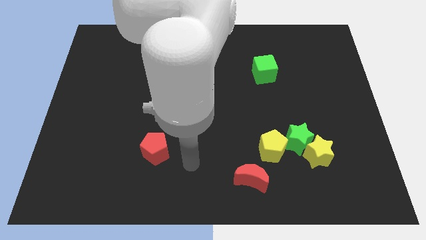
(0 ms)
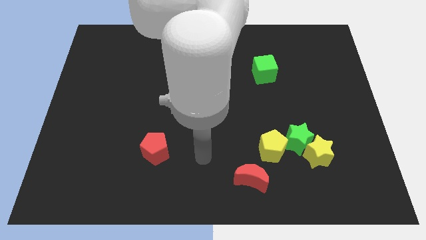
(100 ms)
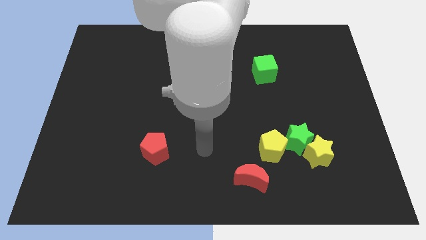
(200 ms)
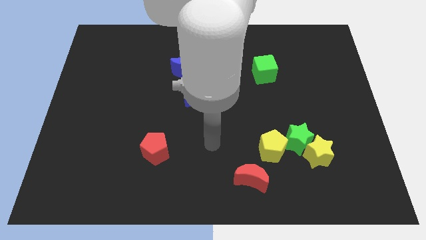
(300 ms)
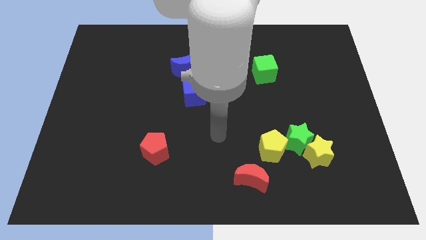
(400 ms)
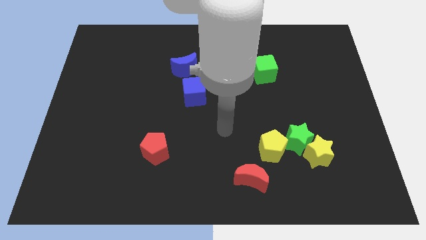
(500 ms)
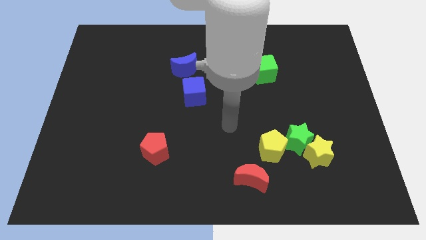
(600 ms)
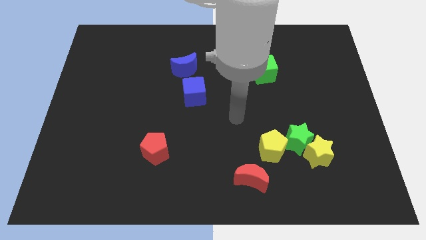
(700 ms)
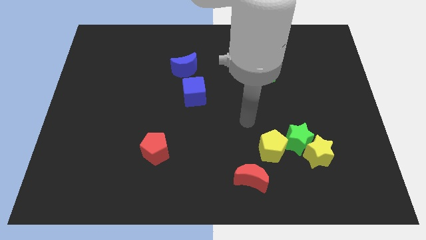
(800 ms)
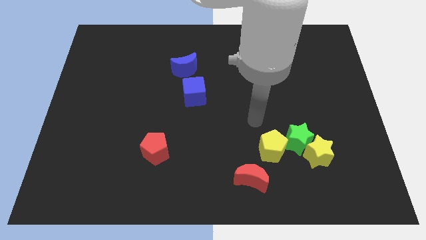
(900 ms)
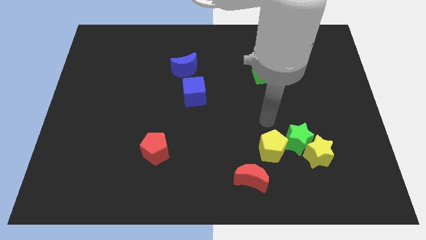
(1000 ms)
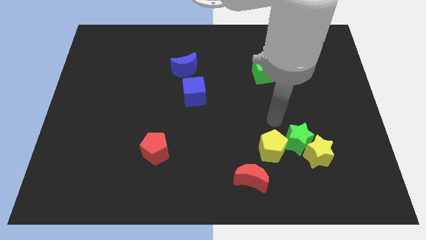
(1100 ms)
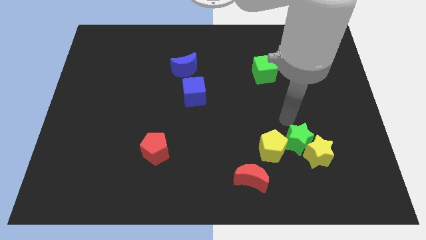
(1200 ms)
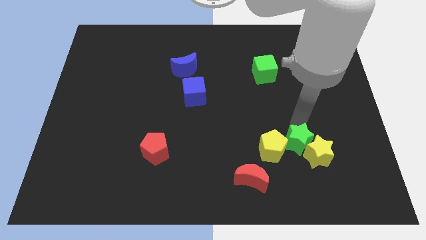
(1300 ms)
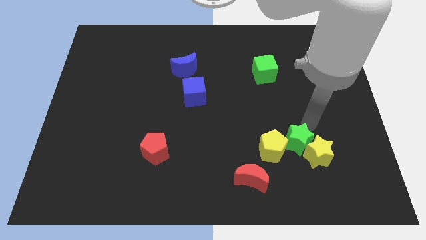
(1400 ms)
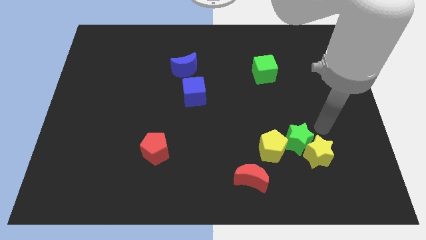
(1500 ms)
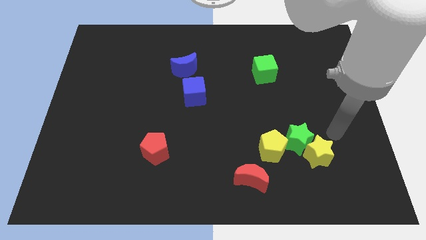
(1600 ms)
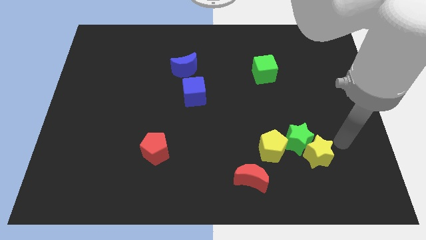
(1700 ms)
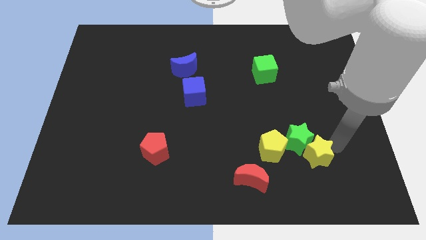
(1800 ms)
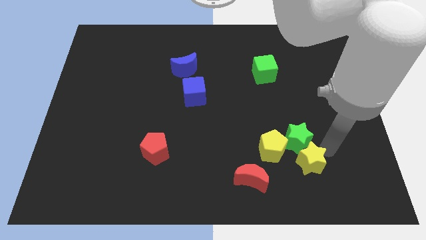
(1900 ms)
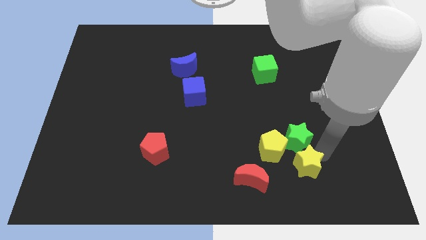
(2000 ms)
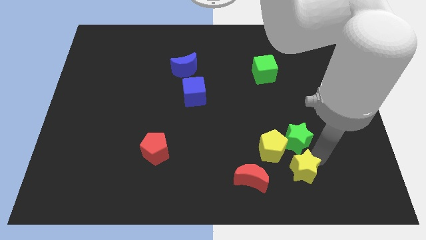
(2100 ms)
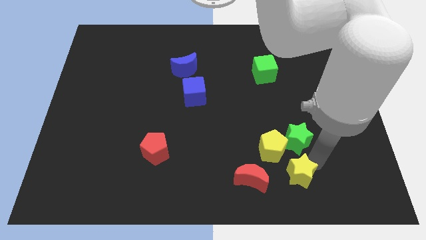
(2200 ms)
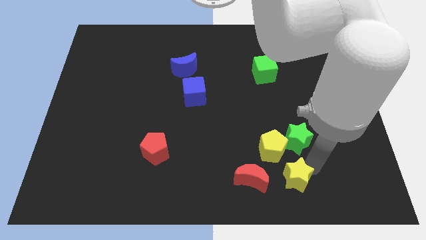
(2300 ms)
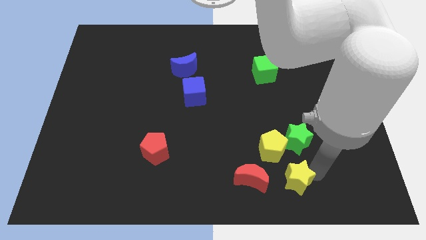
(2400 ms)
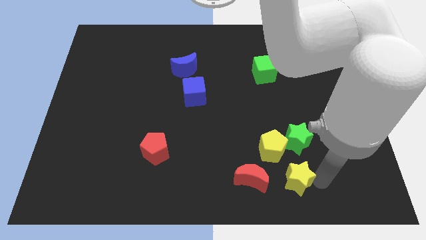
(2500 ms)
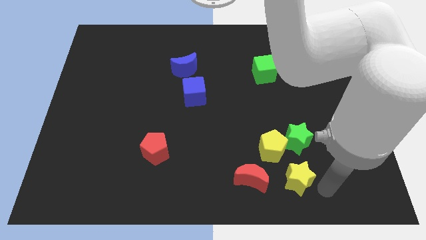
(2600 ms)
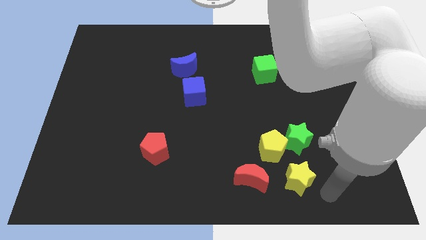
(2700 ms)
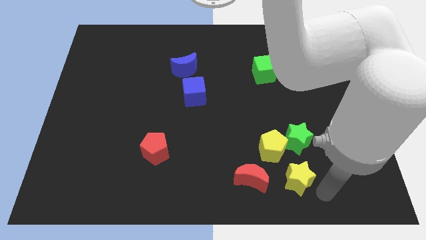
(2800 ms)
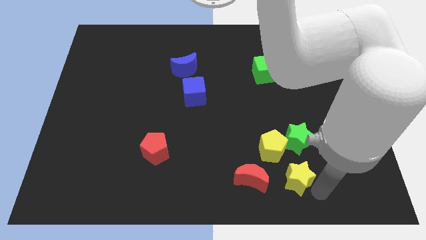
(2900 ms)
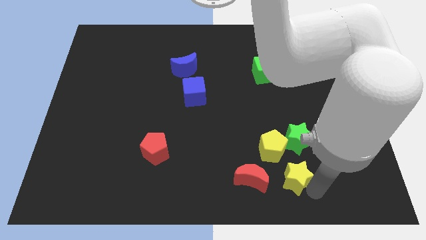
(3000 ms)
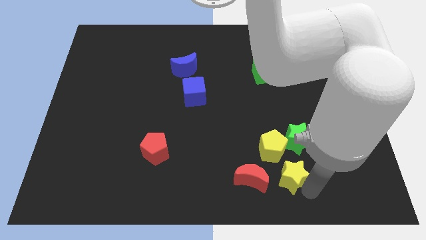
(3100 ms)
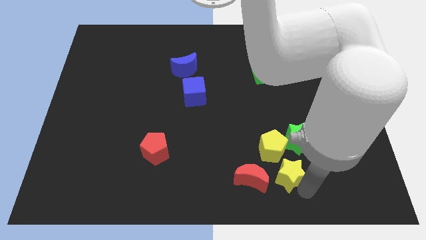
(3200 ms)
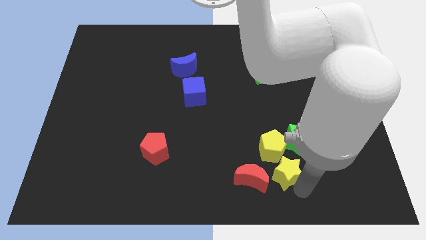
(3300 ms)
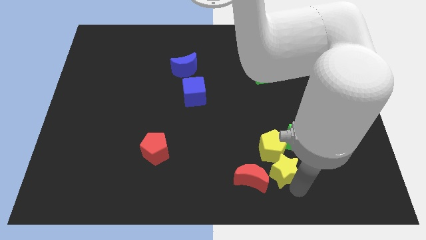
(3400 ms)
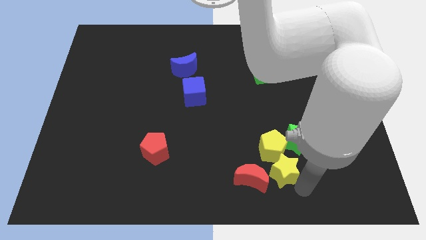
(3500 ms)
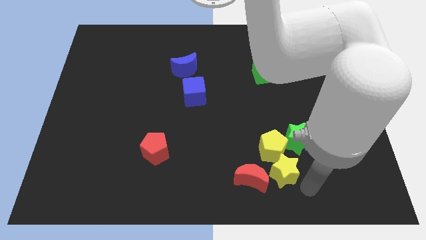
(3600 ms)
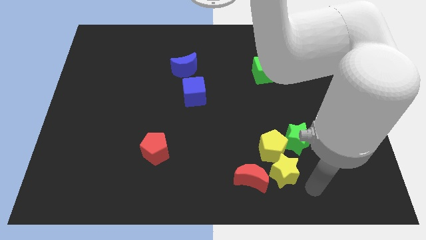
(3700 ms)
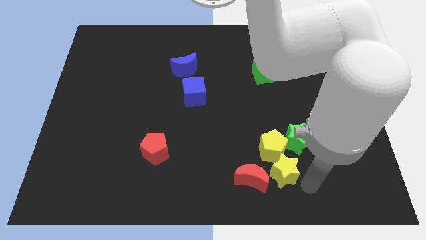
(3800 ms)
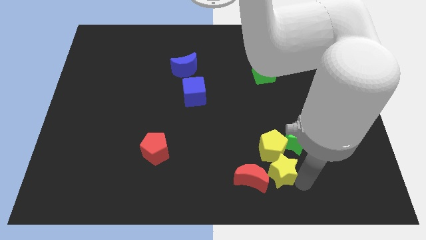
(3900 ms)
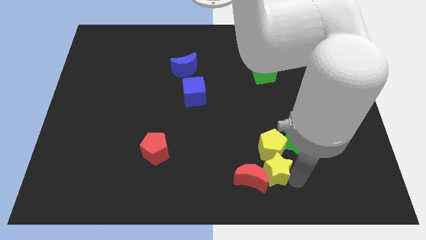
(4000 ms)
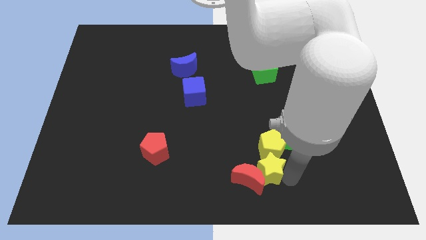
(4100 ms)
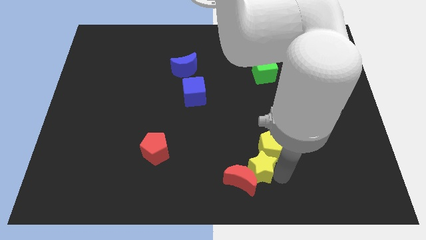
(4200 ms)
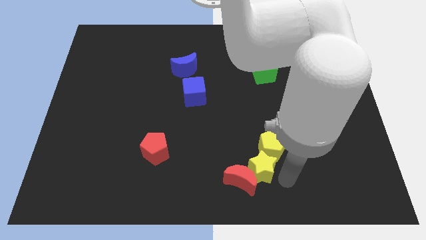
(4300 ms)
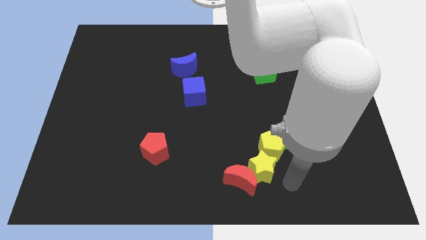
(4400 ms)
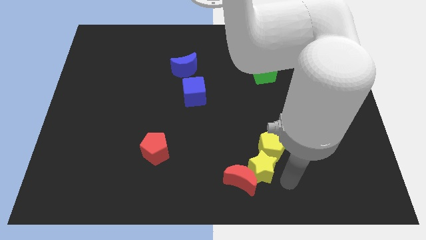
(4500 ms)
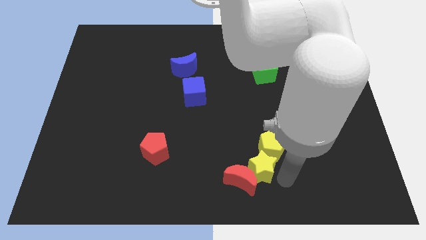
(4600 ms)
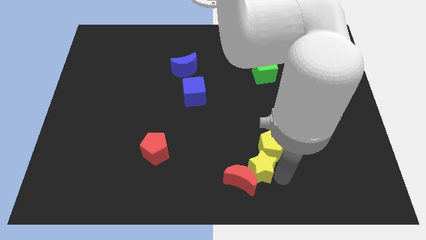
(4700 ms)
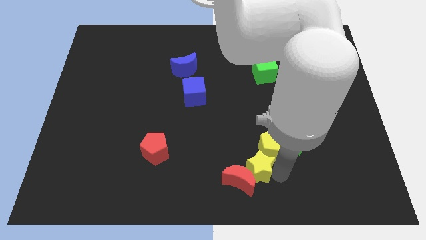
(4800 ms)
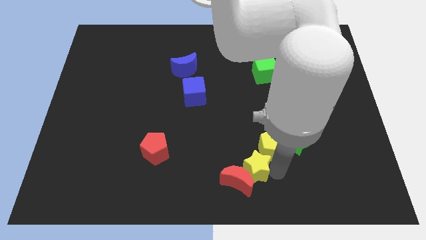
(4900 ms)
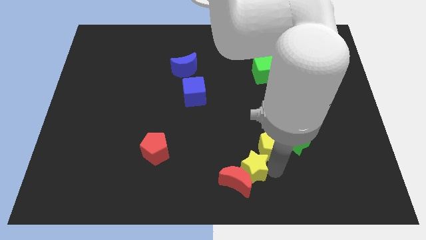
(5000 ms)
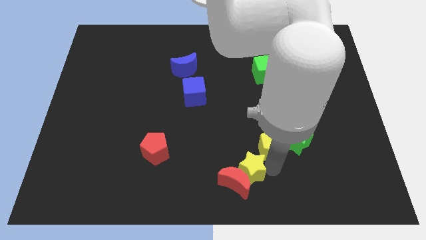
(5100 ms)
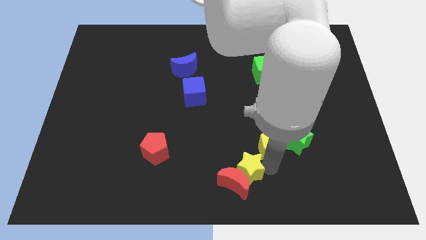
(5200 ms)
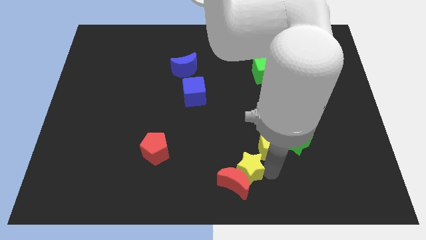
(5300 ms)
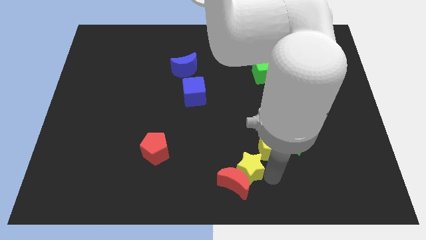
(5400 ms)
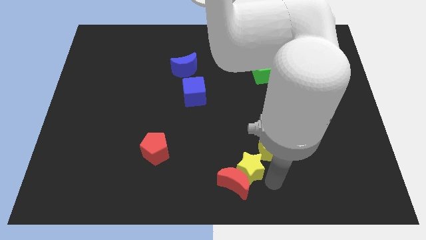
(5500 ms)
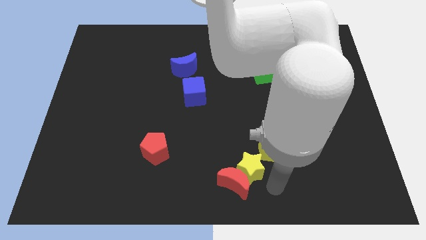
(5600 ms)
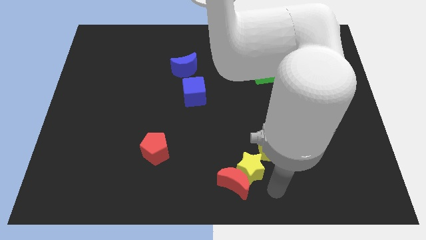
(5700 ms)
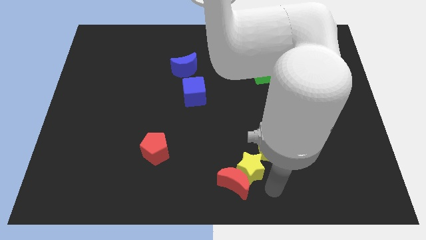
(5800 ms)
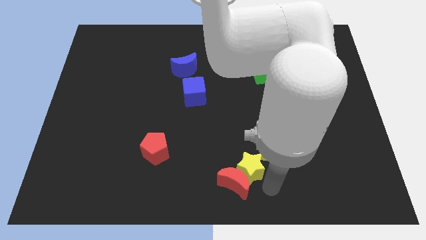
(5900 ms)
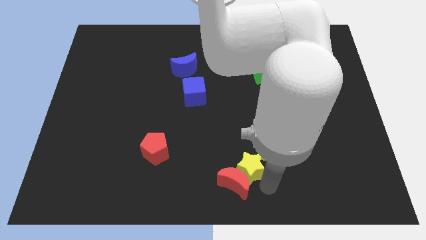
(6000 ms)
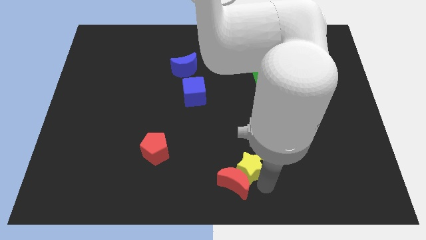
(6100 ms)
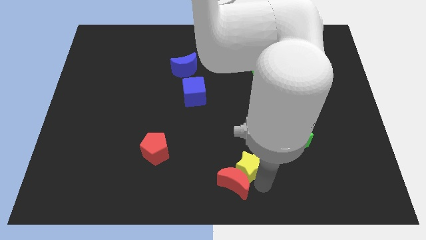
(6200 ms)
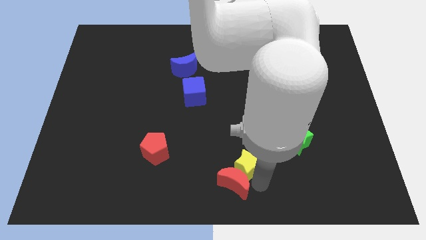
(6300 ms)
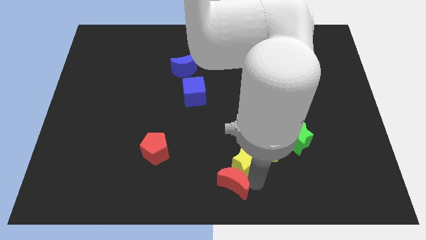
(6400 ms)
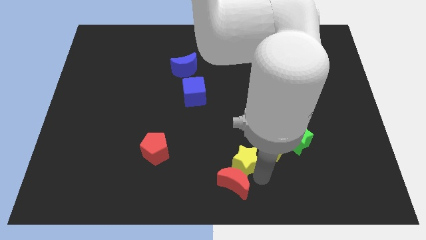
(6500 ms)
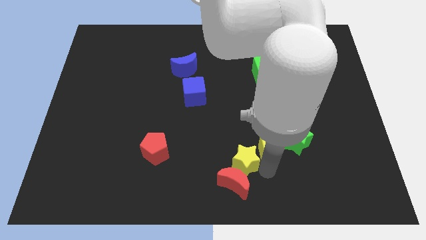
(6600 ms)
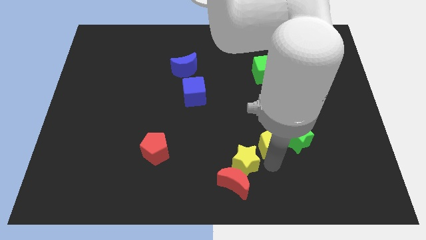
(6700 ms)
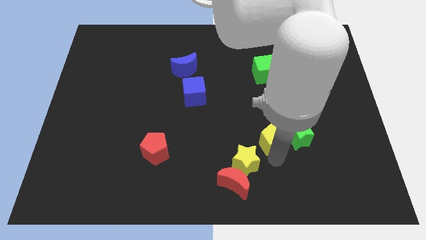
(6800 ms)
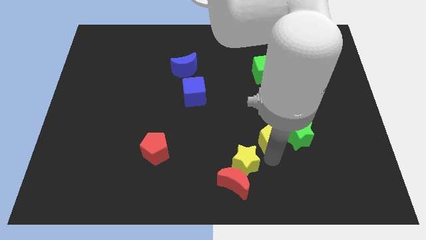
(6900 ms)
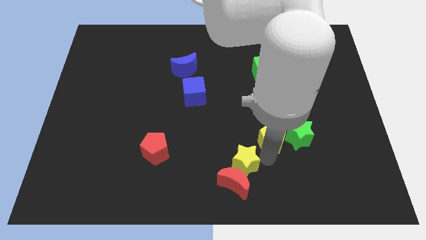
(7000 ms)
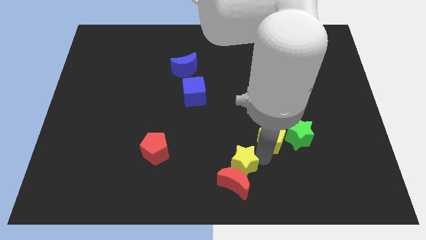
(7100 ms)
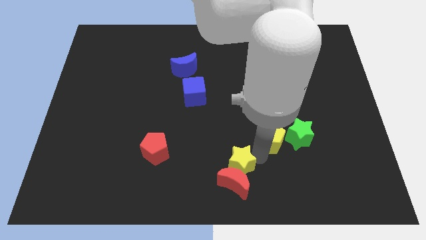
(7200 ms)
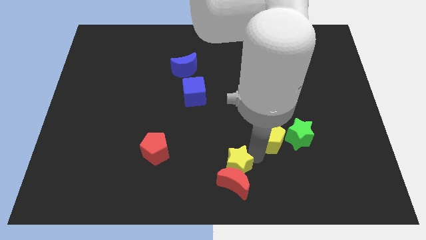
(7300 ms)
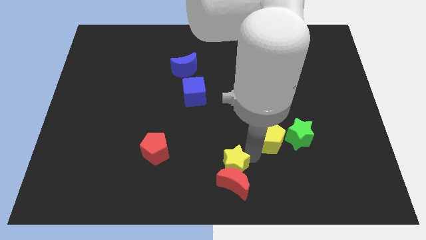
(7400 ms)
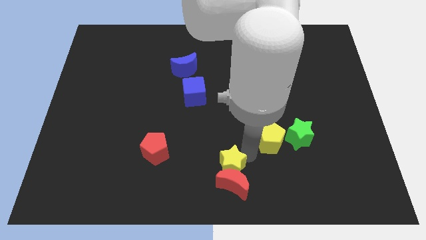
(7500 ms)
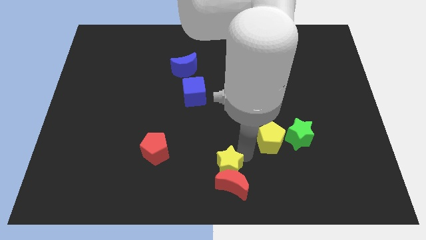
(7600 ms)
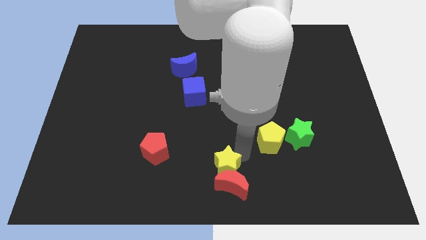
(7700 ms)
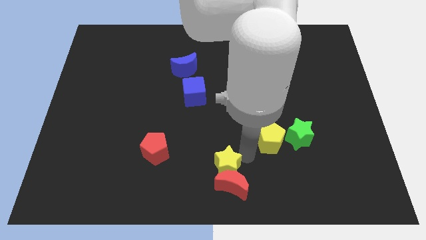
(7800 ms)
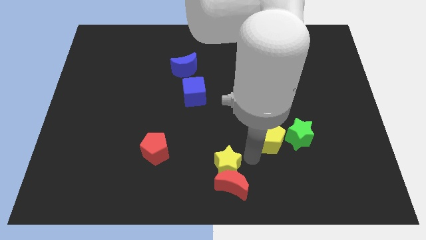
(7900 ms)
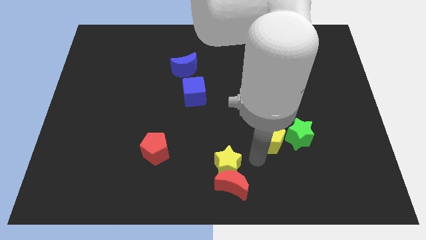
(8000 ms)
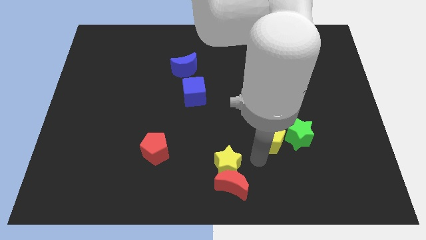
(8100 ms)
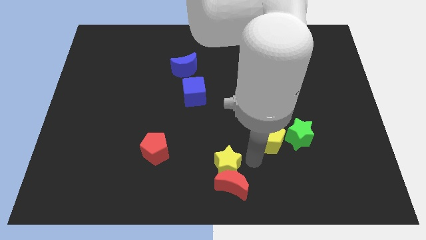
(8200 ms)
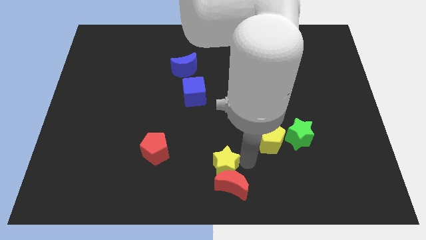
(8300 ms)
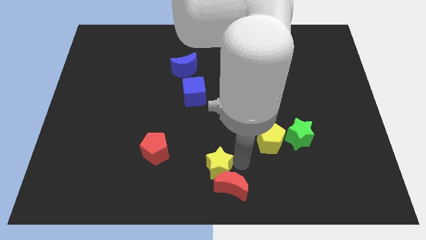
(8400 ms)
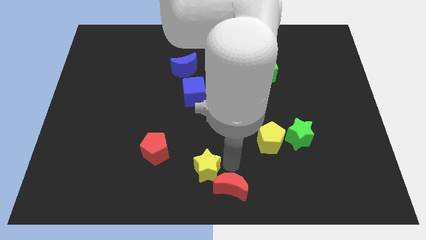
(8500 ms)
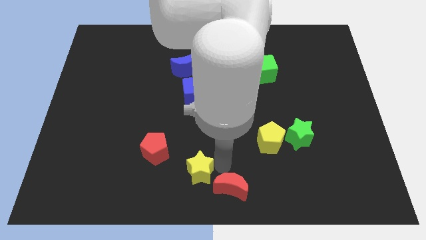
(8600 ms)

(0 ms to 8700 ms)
push the yellow star diagonally down and to the right of the red pentagon
